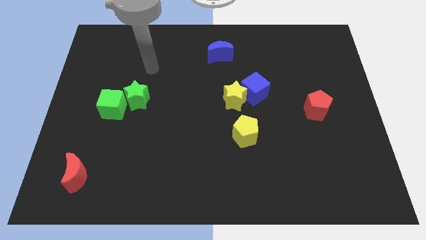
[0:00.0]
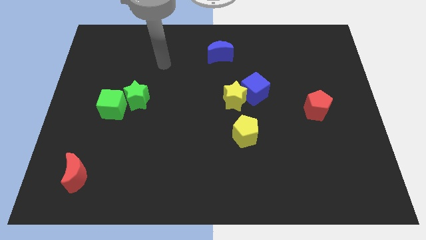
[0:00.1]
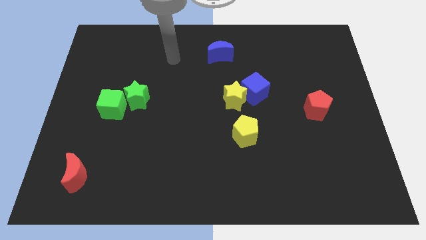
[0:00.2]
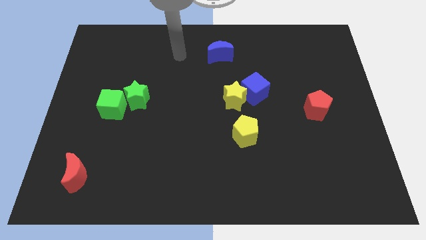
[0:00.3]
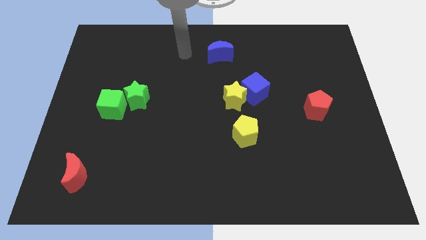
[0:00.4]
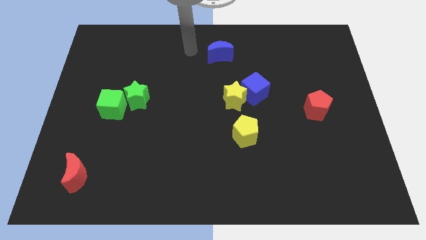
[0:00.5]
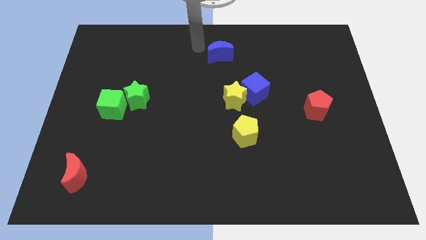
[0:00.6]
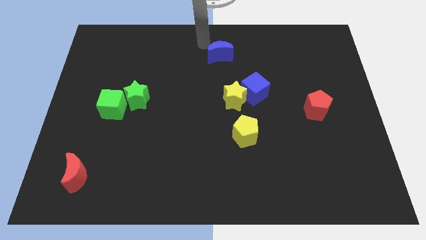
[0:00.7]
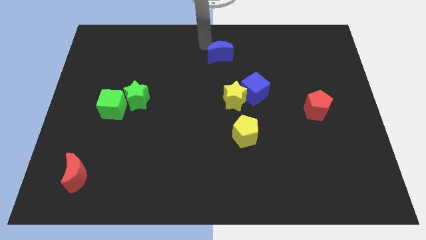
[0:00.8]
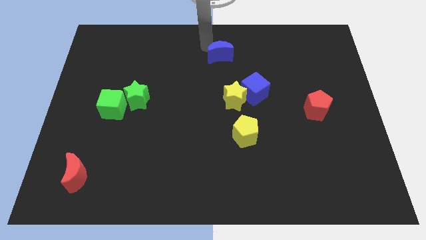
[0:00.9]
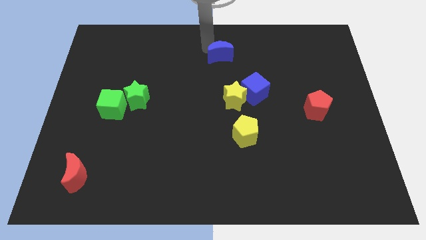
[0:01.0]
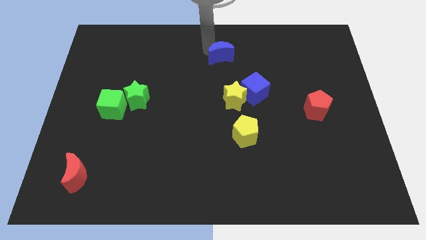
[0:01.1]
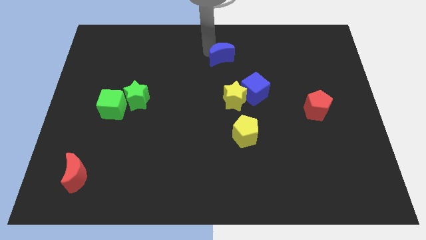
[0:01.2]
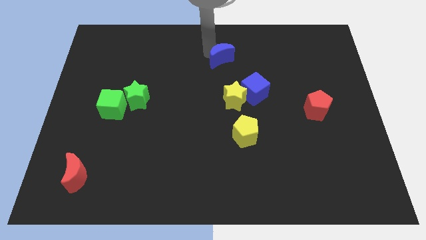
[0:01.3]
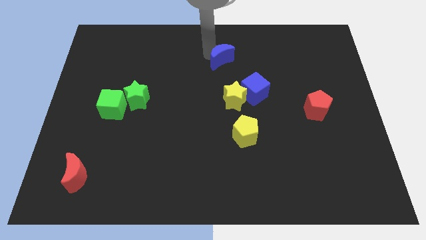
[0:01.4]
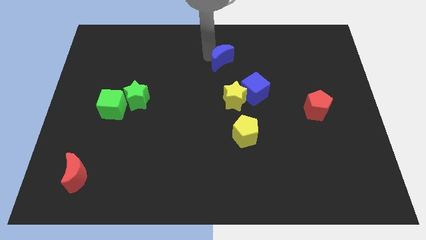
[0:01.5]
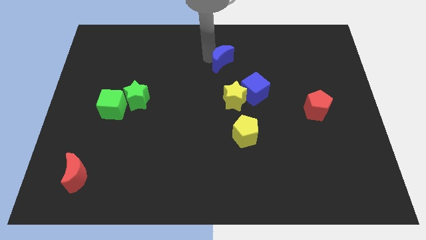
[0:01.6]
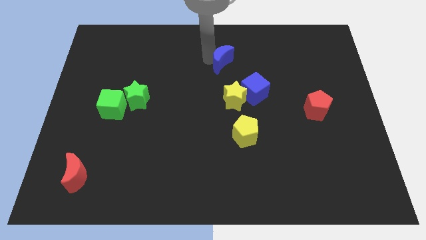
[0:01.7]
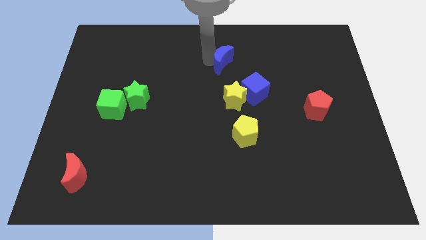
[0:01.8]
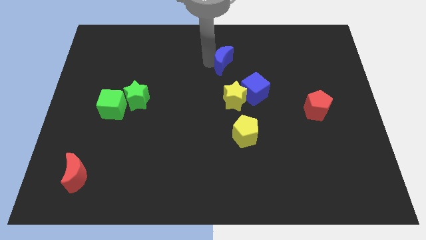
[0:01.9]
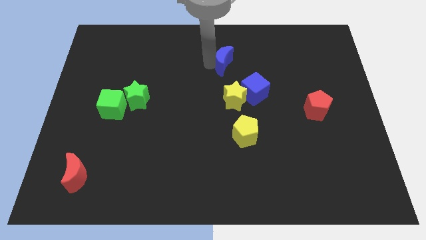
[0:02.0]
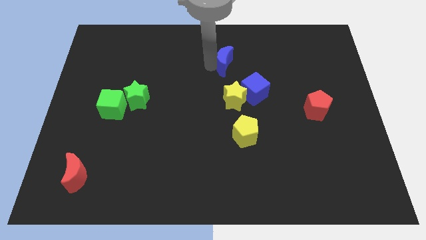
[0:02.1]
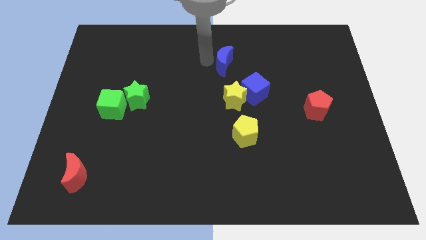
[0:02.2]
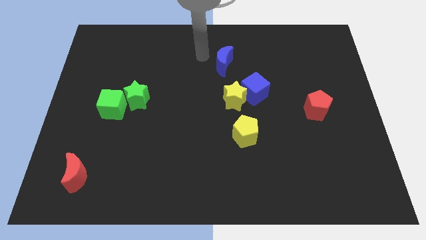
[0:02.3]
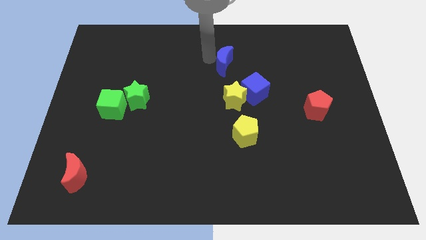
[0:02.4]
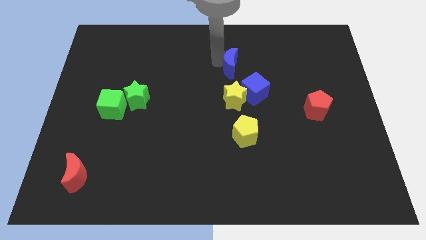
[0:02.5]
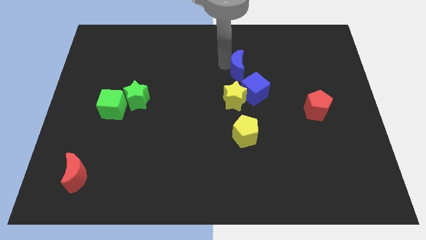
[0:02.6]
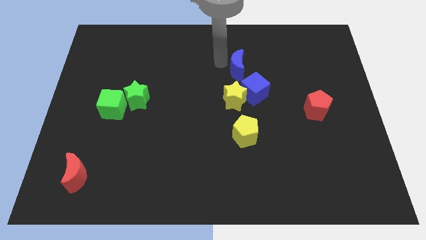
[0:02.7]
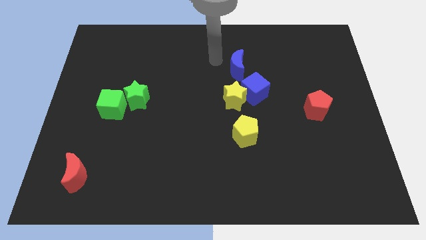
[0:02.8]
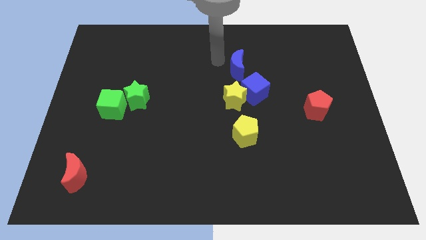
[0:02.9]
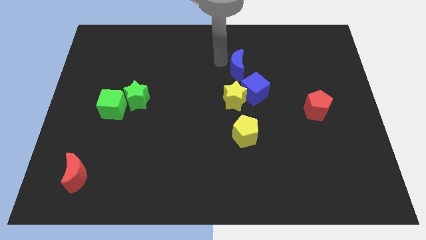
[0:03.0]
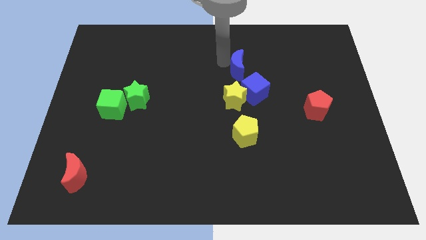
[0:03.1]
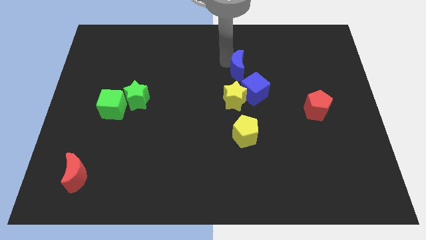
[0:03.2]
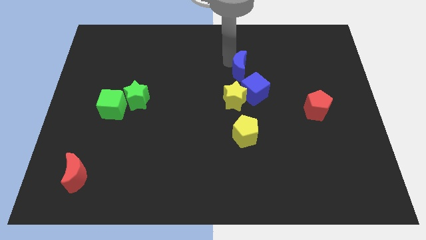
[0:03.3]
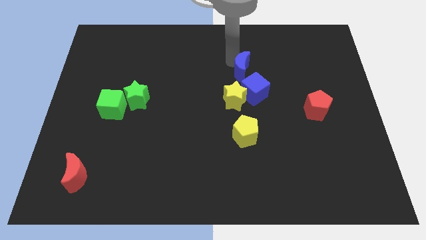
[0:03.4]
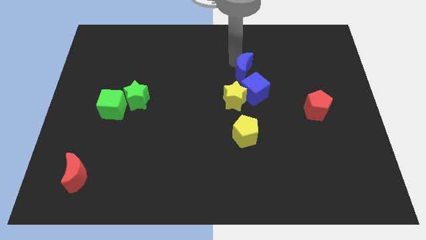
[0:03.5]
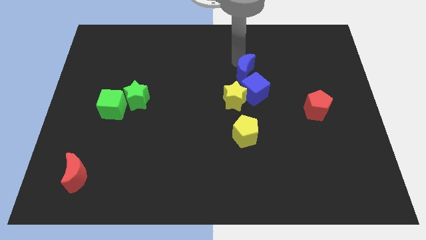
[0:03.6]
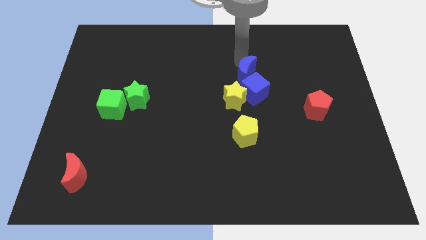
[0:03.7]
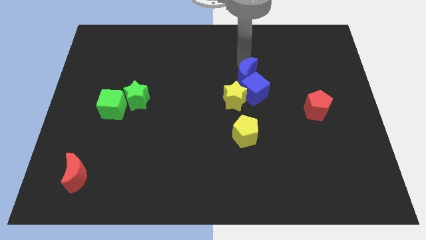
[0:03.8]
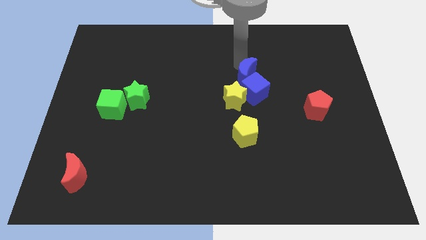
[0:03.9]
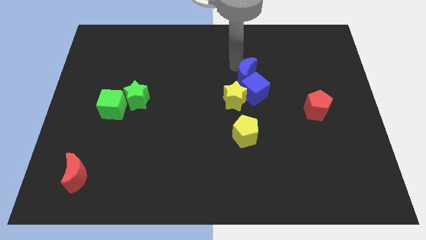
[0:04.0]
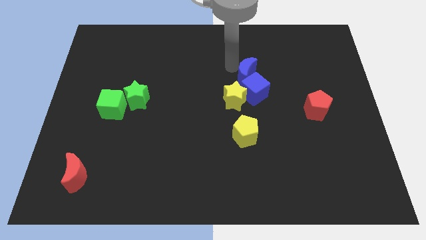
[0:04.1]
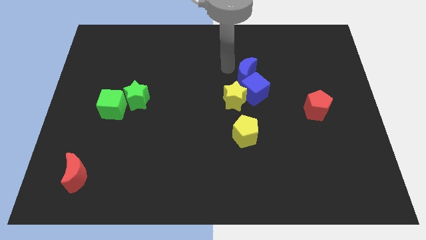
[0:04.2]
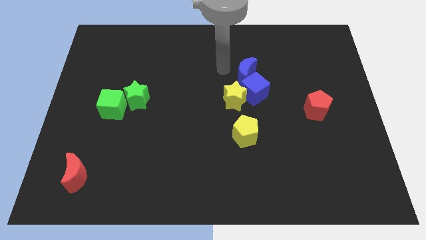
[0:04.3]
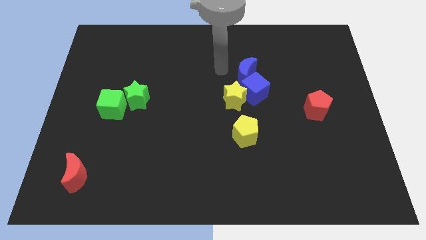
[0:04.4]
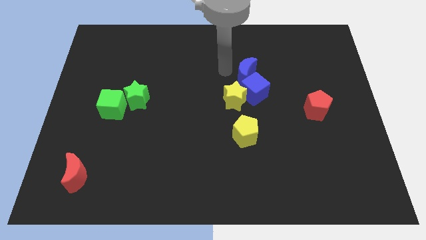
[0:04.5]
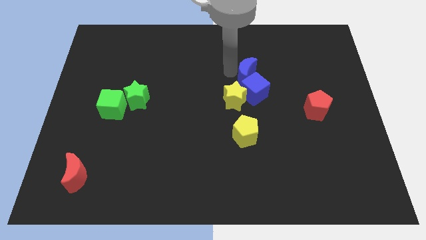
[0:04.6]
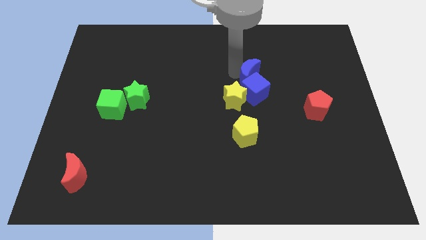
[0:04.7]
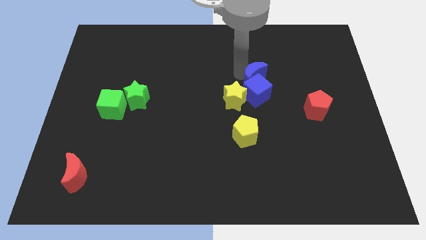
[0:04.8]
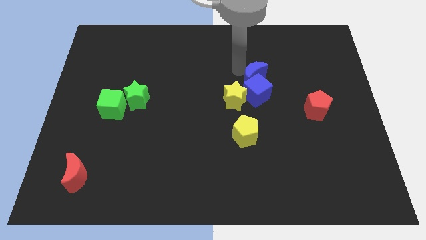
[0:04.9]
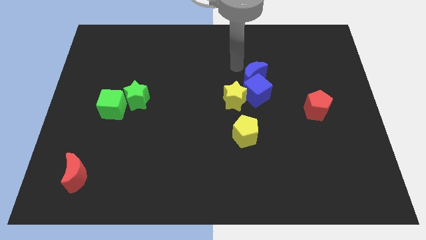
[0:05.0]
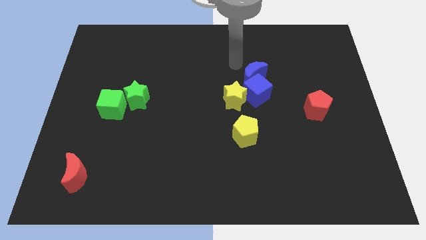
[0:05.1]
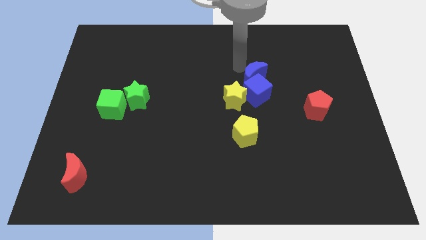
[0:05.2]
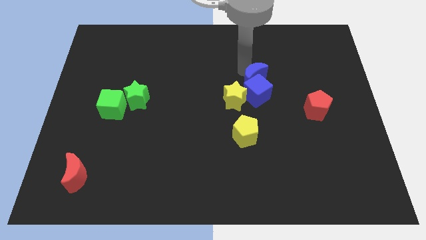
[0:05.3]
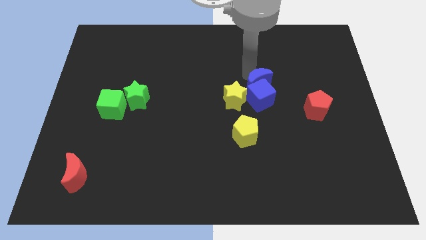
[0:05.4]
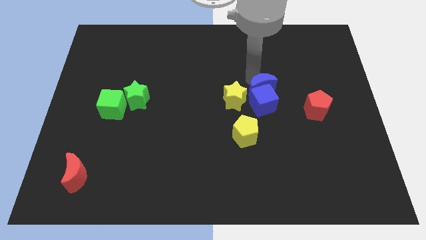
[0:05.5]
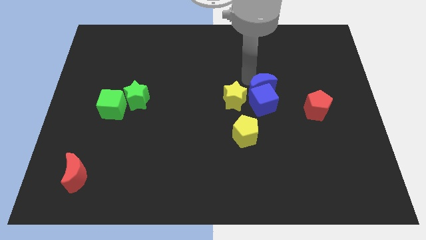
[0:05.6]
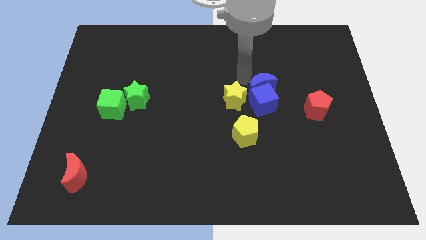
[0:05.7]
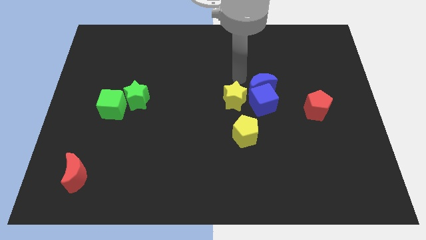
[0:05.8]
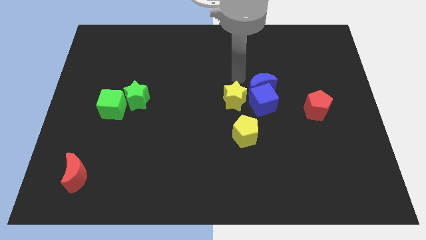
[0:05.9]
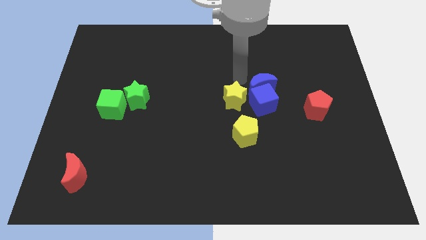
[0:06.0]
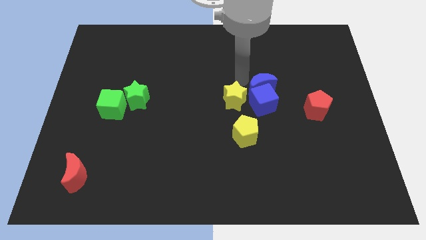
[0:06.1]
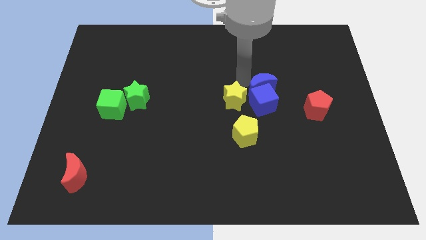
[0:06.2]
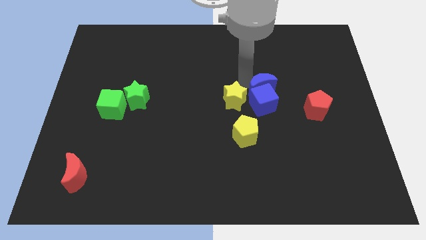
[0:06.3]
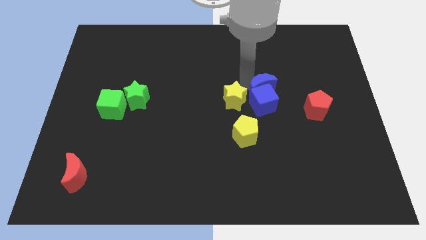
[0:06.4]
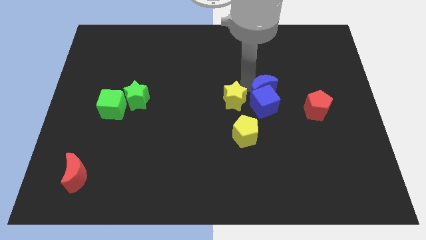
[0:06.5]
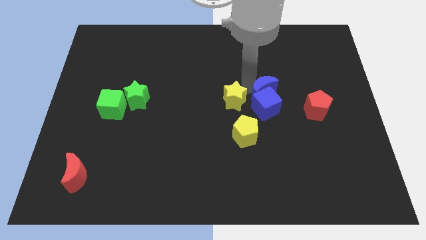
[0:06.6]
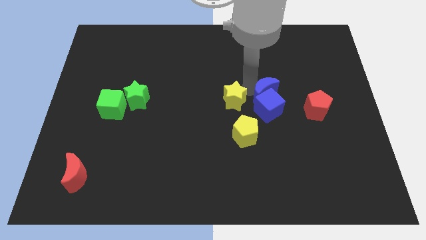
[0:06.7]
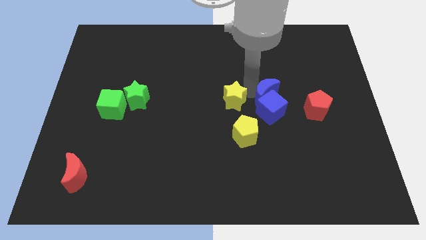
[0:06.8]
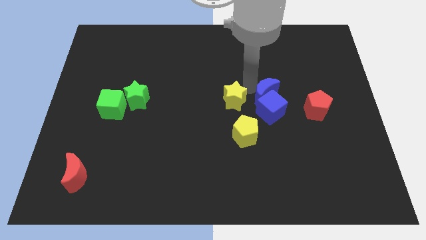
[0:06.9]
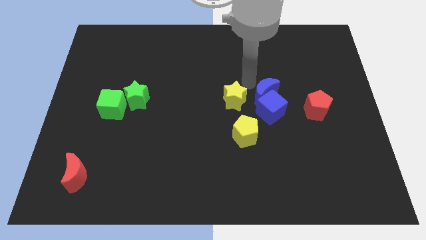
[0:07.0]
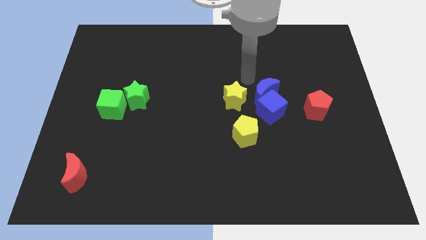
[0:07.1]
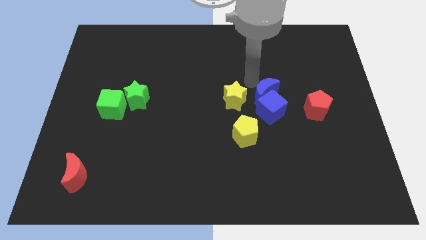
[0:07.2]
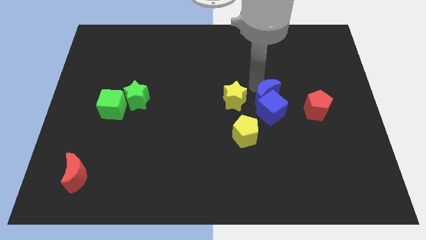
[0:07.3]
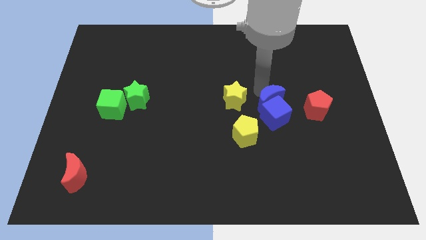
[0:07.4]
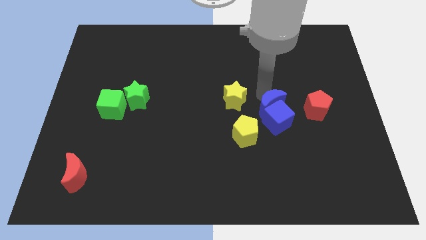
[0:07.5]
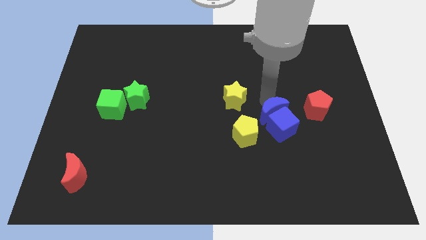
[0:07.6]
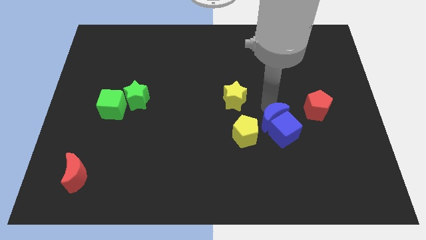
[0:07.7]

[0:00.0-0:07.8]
put the blue moon just right of the yellow pentagon
